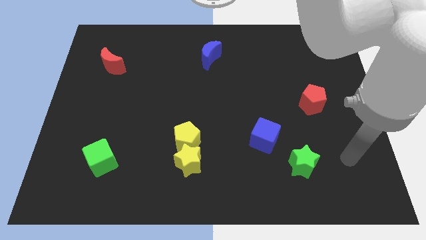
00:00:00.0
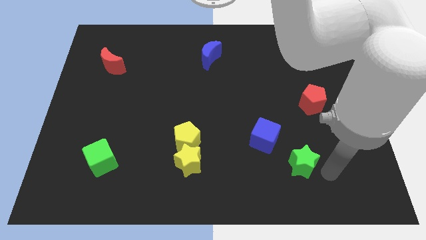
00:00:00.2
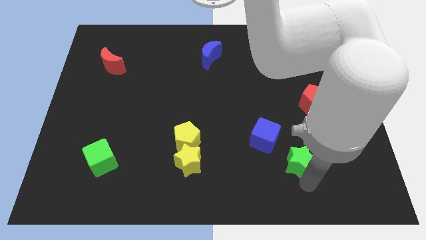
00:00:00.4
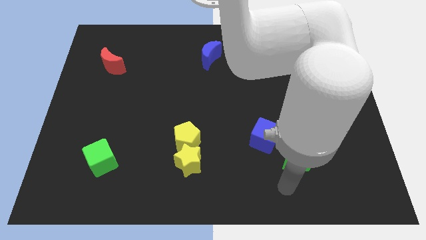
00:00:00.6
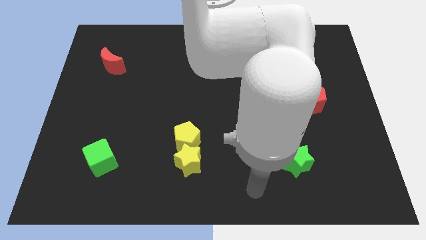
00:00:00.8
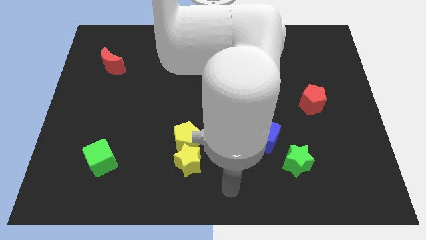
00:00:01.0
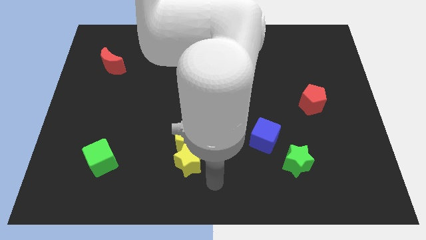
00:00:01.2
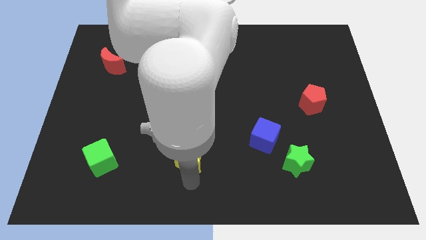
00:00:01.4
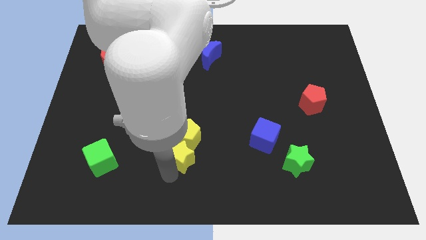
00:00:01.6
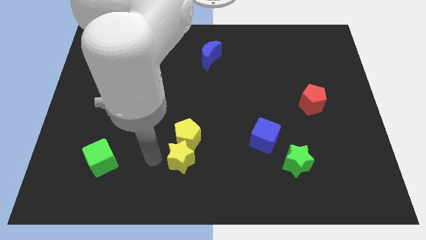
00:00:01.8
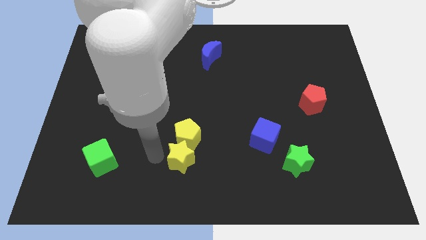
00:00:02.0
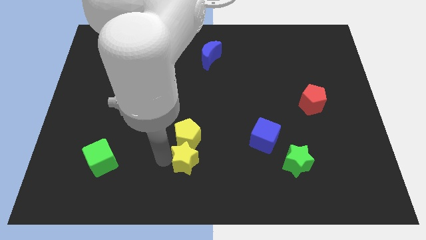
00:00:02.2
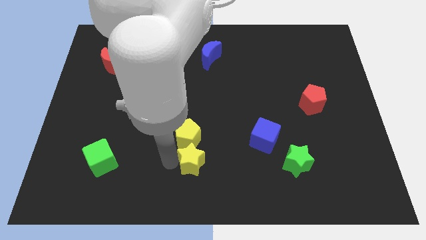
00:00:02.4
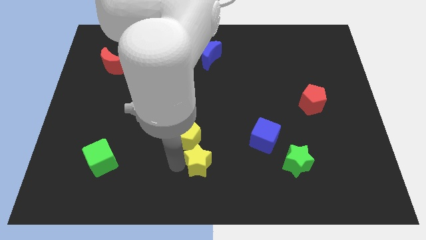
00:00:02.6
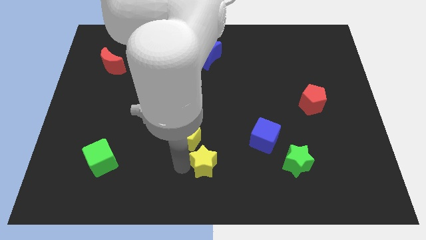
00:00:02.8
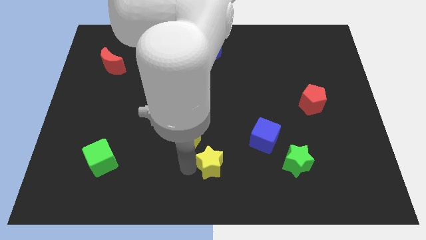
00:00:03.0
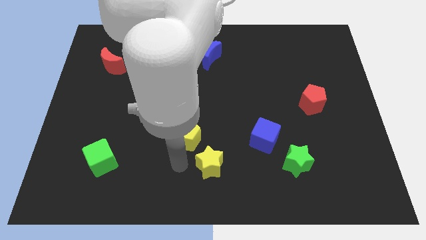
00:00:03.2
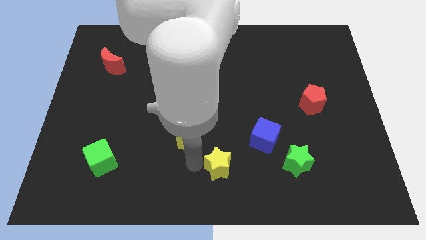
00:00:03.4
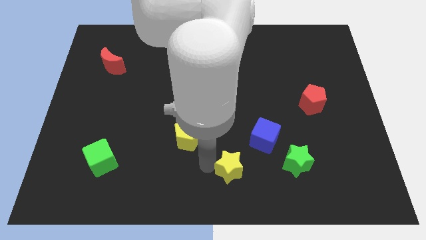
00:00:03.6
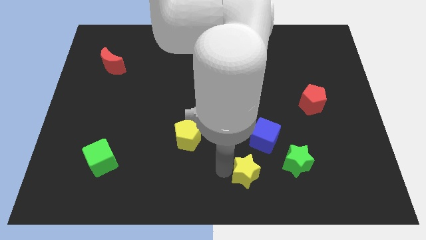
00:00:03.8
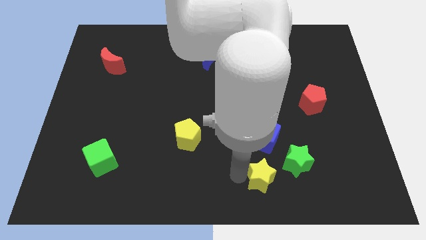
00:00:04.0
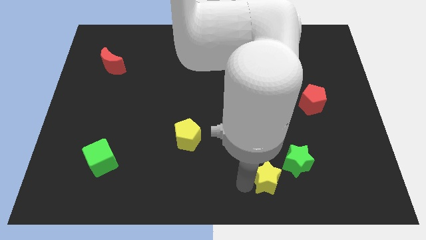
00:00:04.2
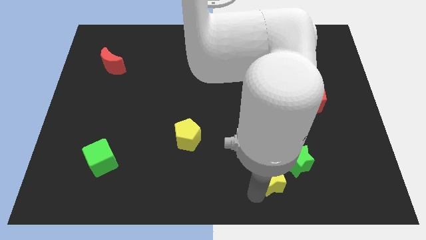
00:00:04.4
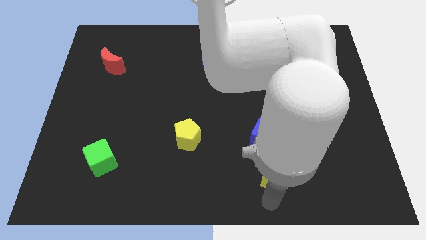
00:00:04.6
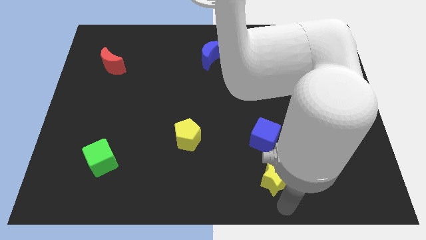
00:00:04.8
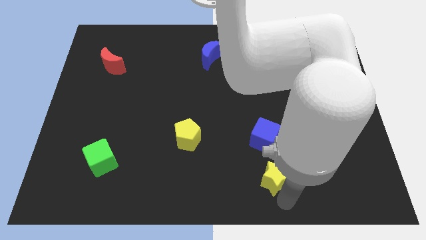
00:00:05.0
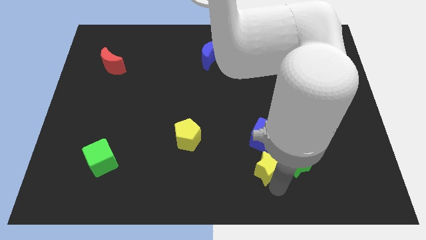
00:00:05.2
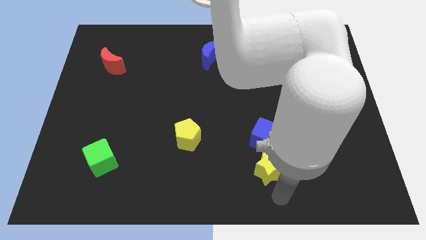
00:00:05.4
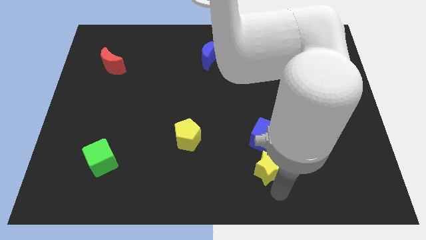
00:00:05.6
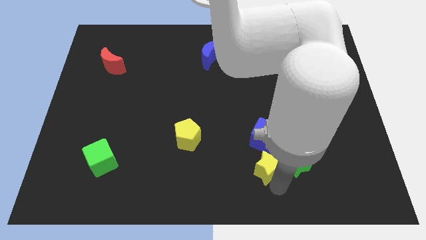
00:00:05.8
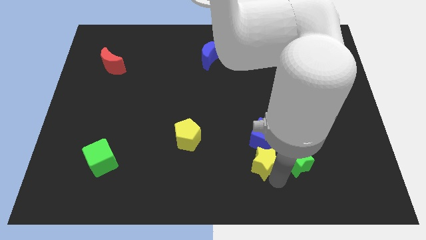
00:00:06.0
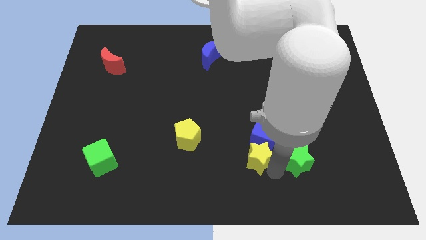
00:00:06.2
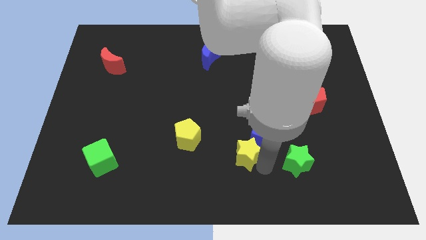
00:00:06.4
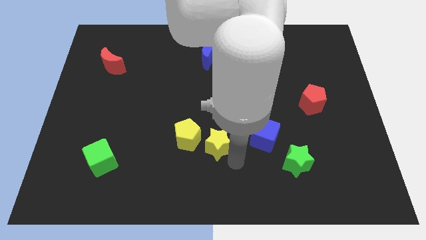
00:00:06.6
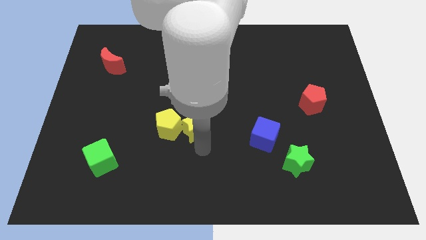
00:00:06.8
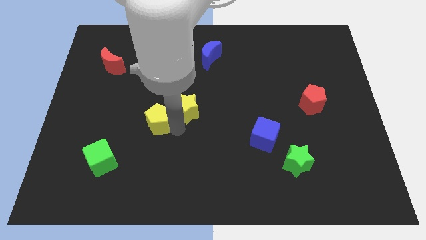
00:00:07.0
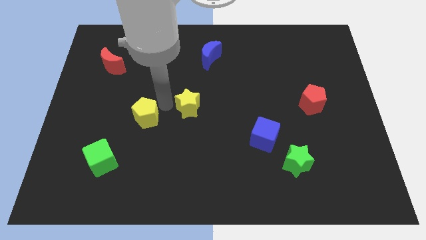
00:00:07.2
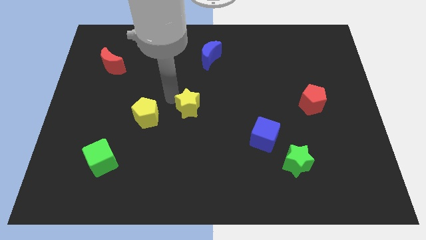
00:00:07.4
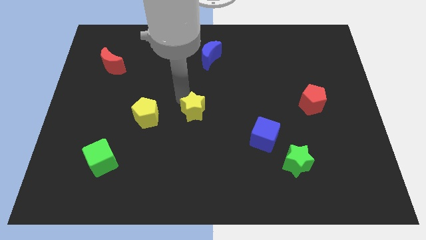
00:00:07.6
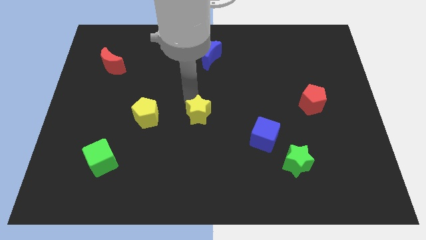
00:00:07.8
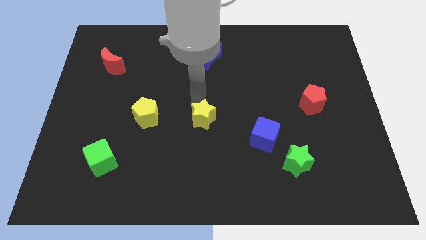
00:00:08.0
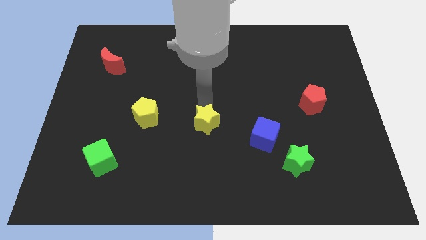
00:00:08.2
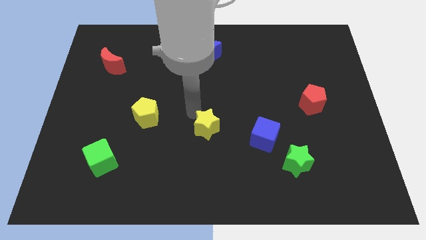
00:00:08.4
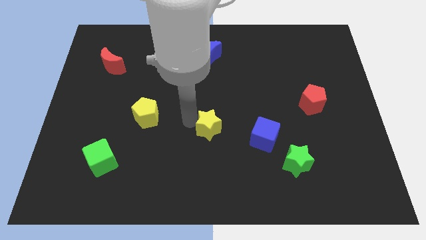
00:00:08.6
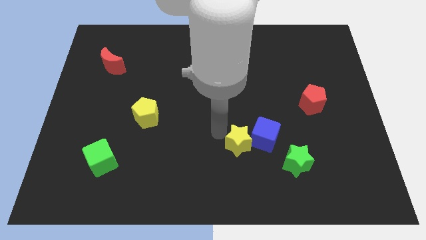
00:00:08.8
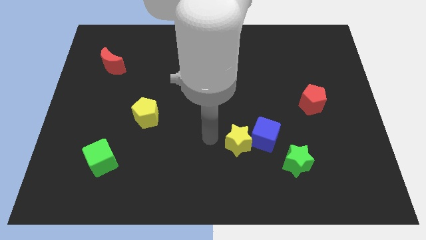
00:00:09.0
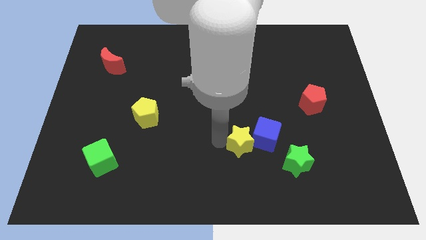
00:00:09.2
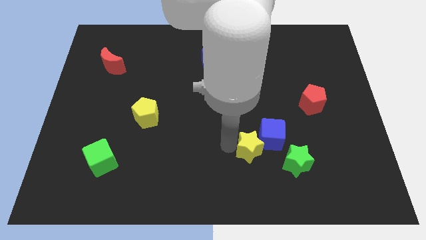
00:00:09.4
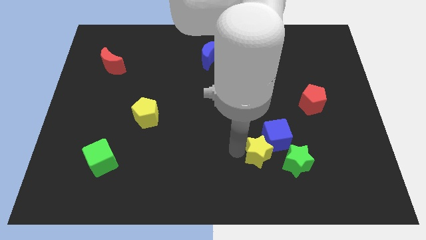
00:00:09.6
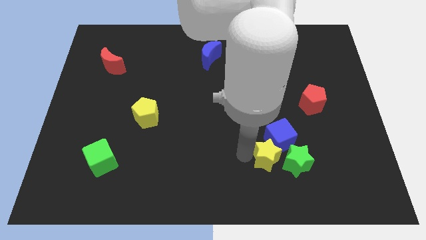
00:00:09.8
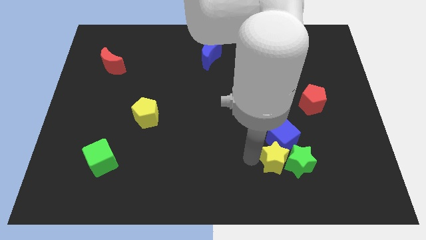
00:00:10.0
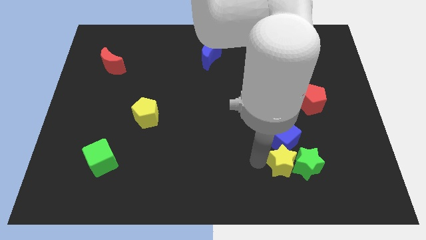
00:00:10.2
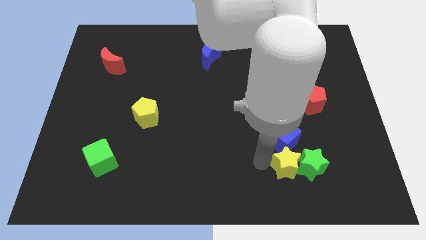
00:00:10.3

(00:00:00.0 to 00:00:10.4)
slide the yellow star to the right

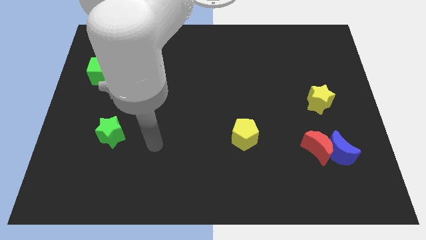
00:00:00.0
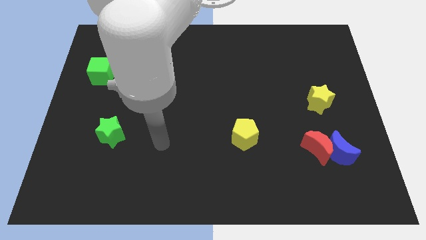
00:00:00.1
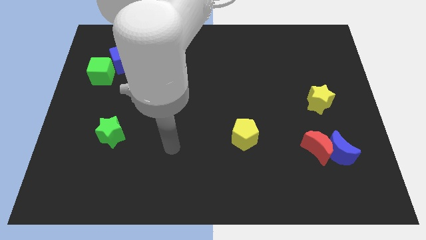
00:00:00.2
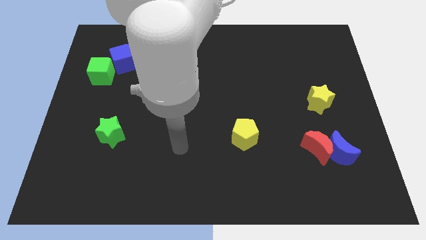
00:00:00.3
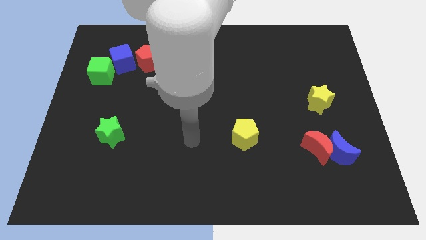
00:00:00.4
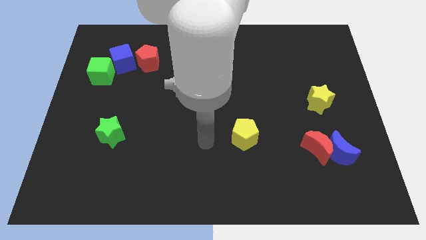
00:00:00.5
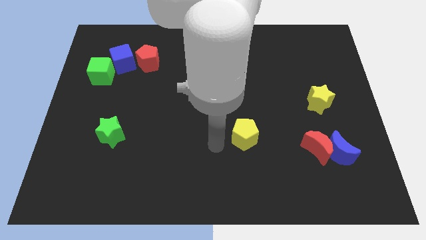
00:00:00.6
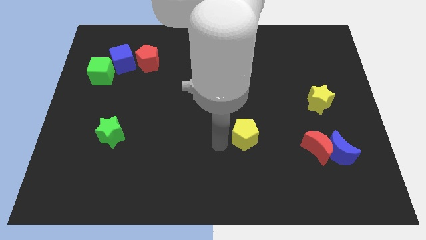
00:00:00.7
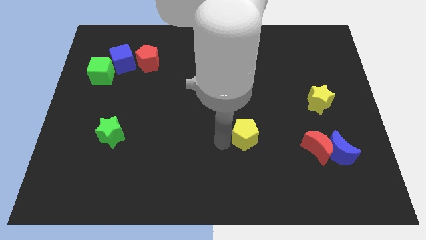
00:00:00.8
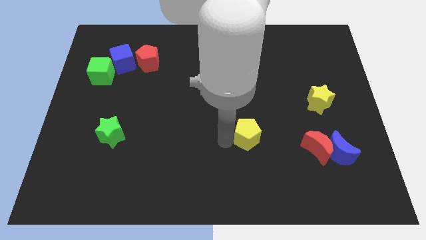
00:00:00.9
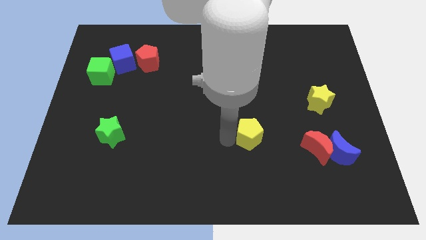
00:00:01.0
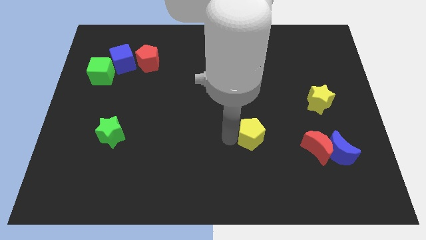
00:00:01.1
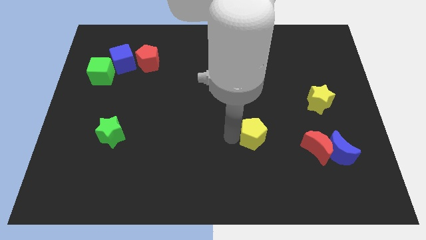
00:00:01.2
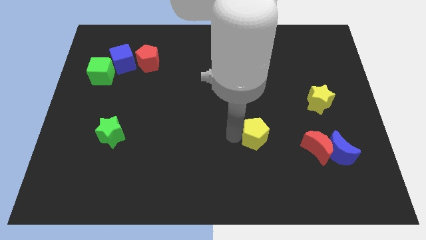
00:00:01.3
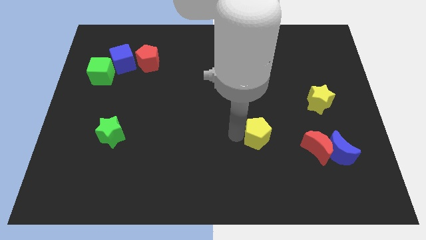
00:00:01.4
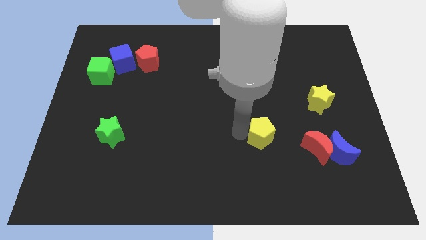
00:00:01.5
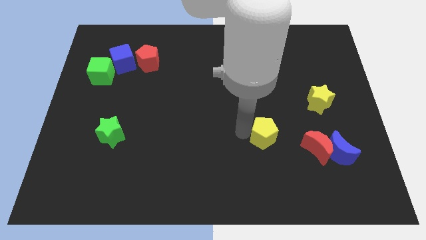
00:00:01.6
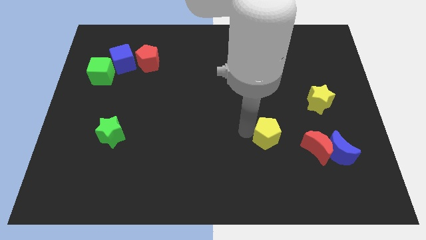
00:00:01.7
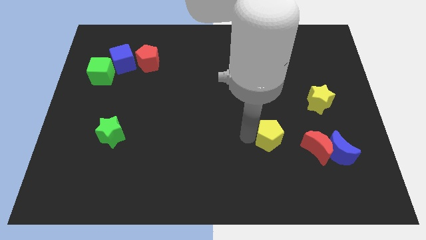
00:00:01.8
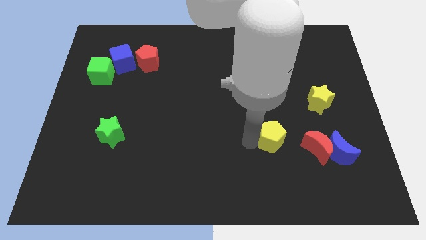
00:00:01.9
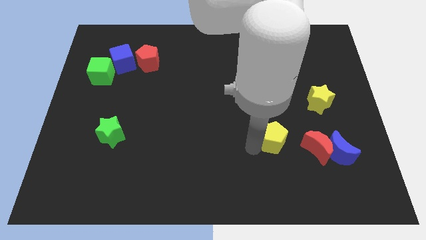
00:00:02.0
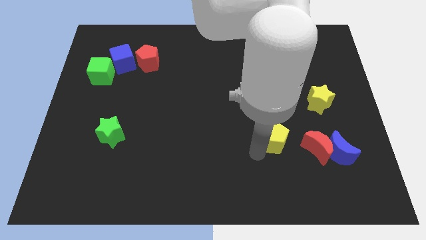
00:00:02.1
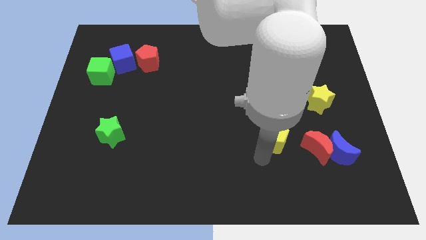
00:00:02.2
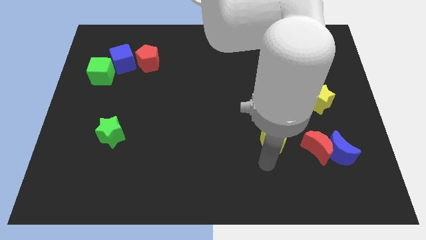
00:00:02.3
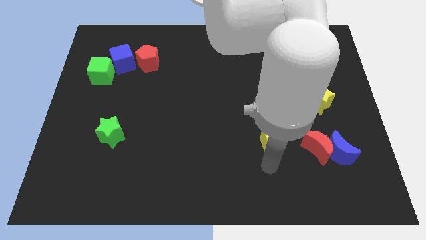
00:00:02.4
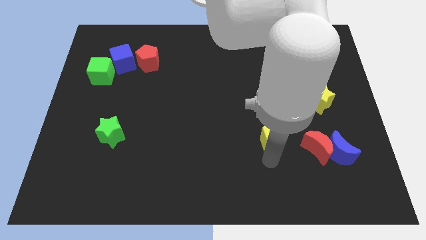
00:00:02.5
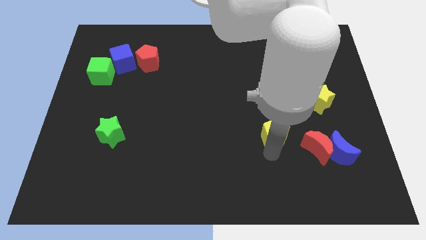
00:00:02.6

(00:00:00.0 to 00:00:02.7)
slightly slide the yellow pentagon to the right

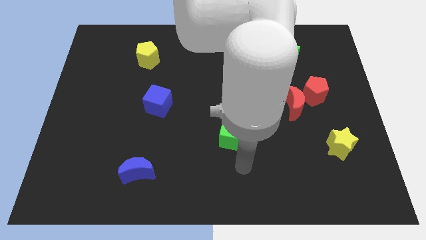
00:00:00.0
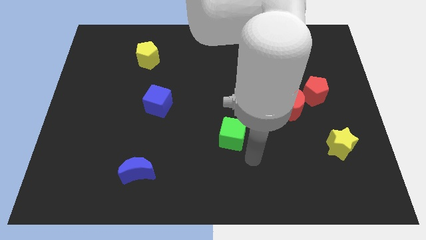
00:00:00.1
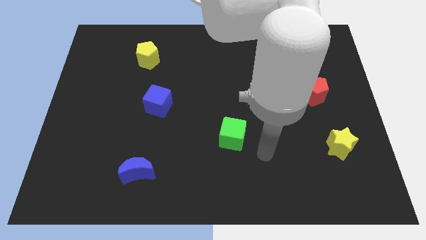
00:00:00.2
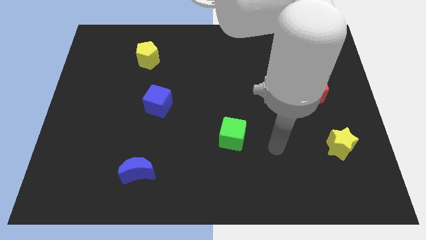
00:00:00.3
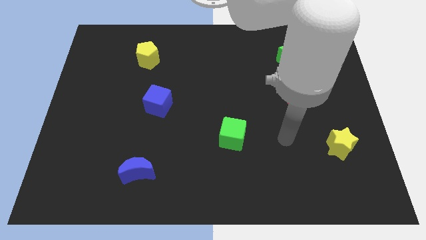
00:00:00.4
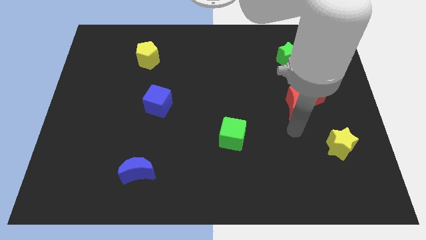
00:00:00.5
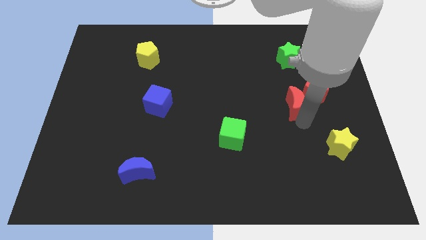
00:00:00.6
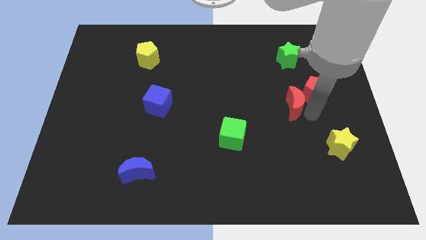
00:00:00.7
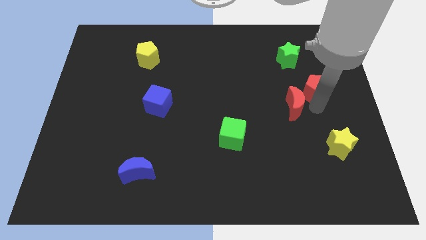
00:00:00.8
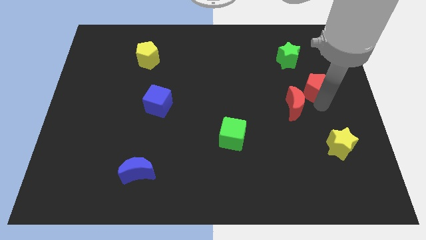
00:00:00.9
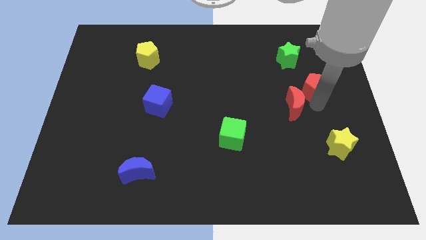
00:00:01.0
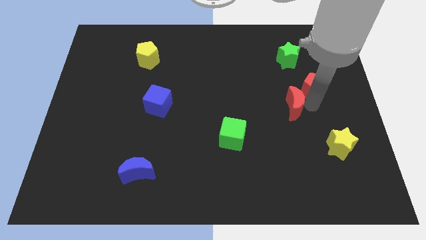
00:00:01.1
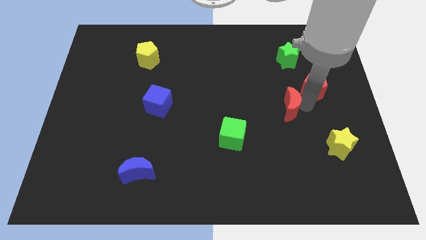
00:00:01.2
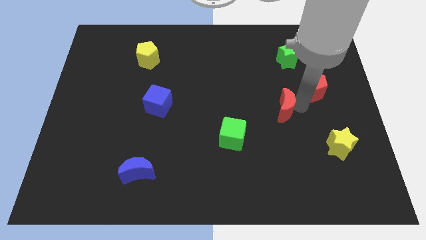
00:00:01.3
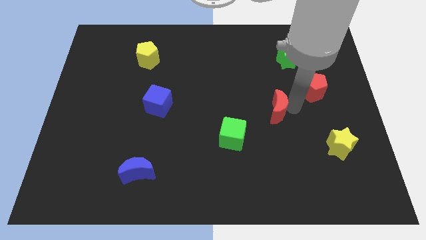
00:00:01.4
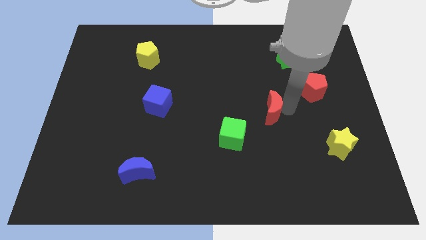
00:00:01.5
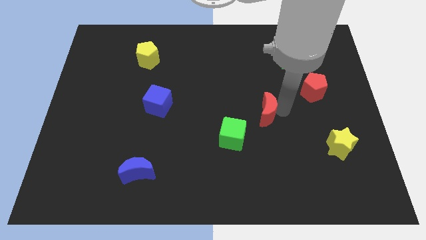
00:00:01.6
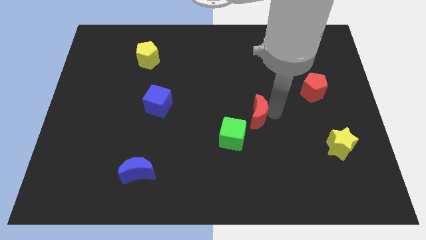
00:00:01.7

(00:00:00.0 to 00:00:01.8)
slightly move the red moon left
